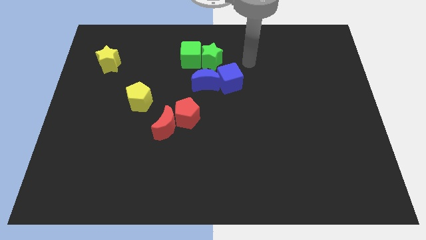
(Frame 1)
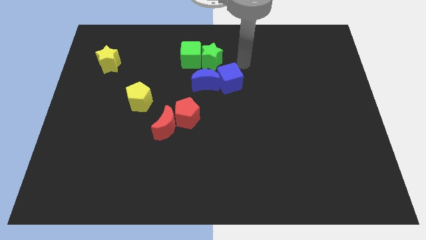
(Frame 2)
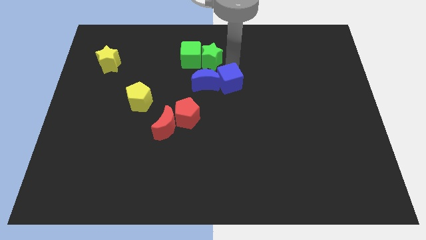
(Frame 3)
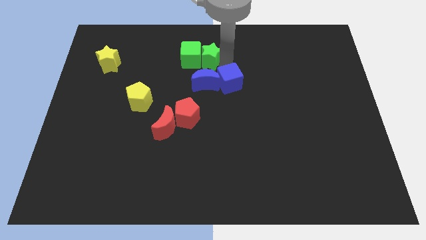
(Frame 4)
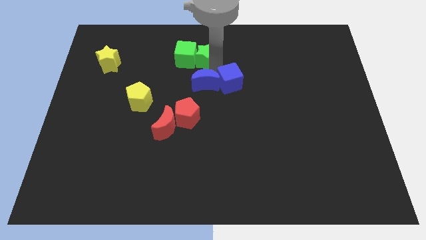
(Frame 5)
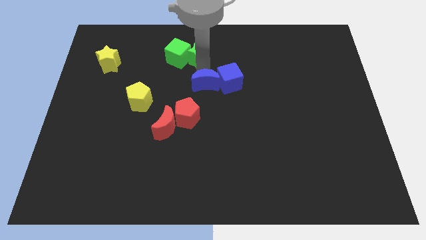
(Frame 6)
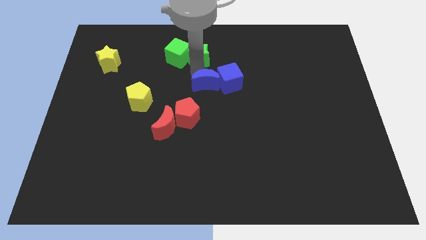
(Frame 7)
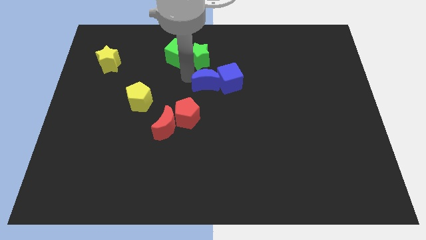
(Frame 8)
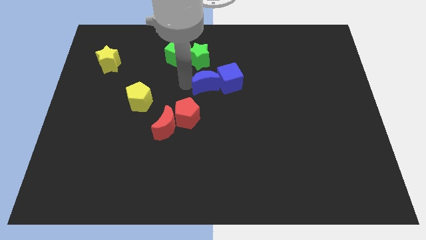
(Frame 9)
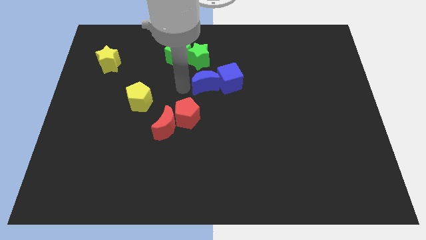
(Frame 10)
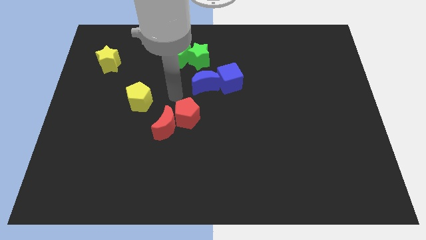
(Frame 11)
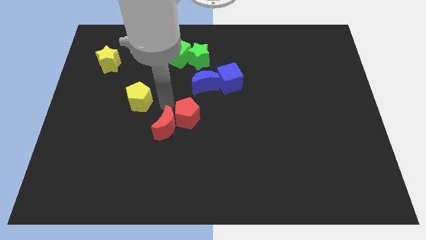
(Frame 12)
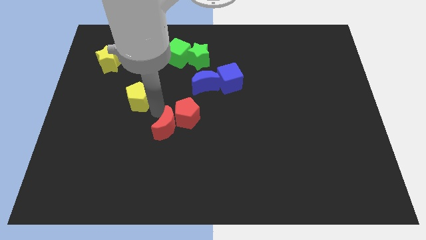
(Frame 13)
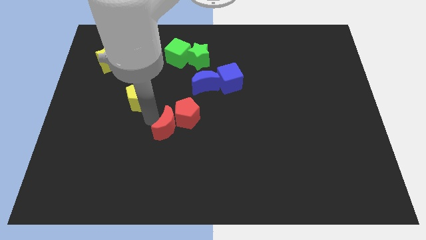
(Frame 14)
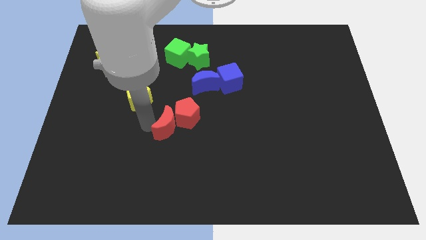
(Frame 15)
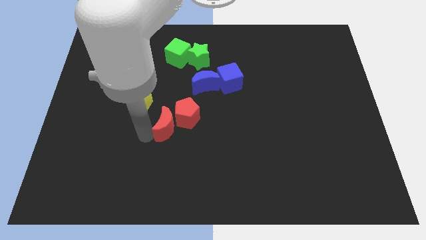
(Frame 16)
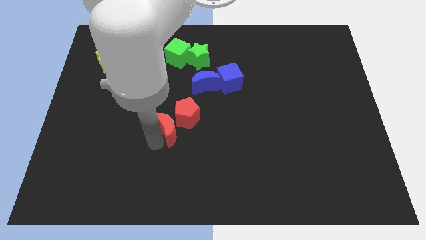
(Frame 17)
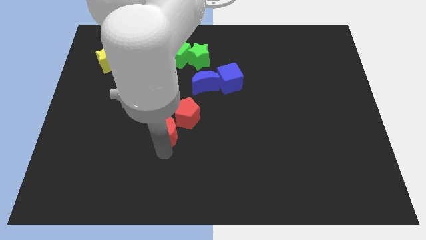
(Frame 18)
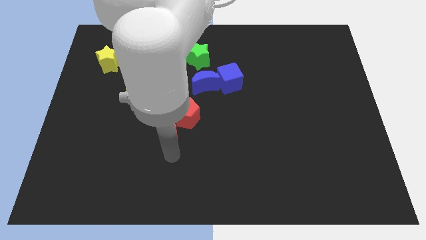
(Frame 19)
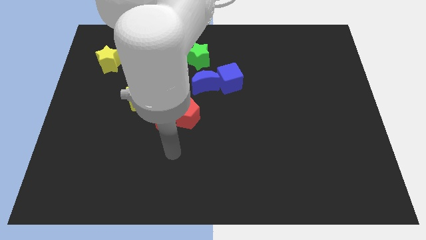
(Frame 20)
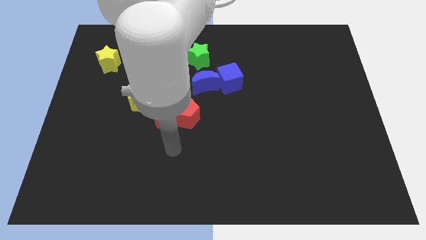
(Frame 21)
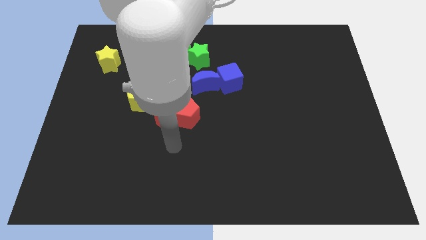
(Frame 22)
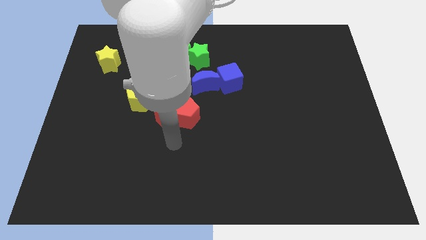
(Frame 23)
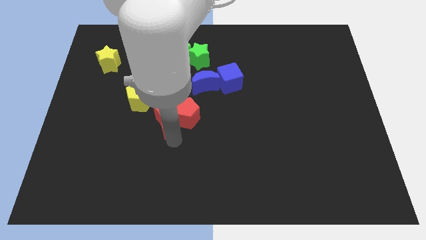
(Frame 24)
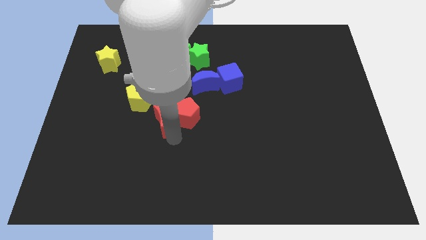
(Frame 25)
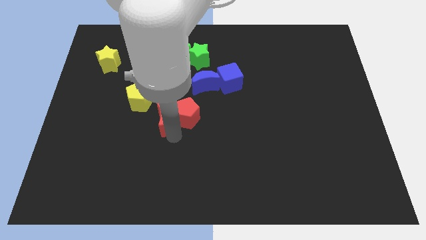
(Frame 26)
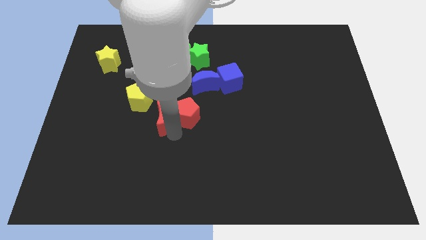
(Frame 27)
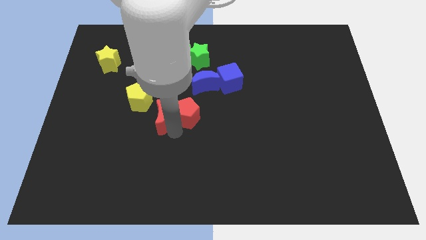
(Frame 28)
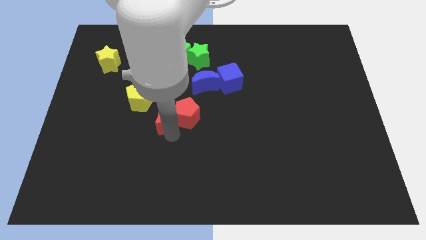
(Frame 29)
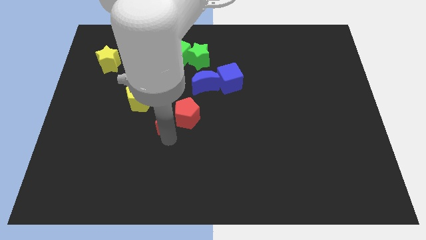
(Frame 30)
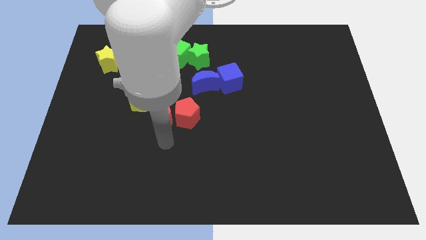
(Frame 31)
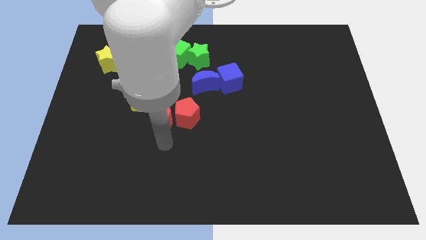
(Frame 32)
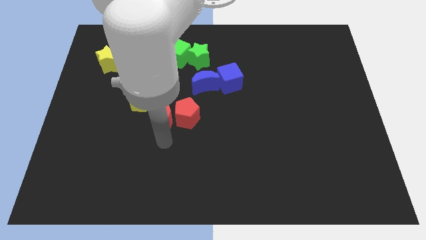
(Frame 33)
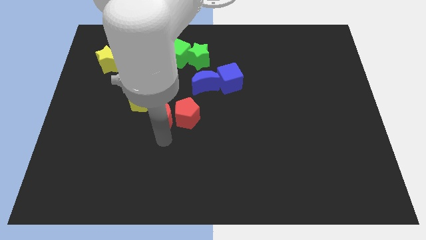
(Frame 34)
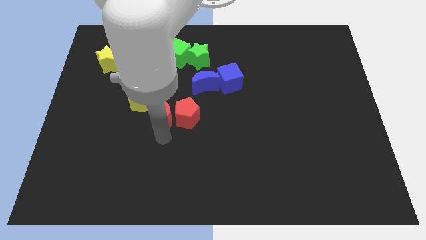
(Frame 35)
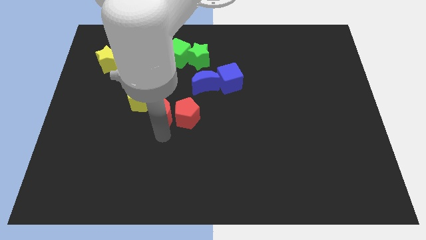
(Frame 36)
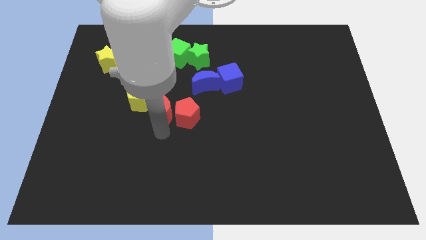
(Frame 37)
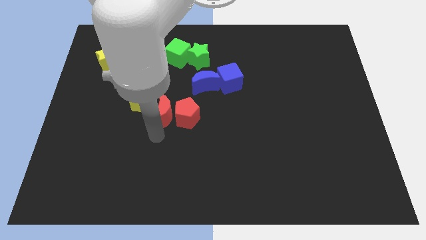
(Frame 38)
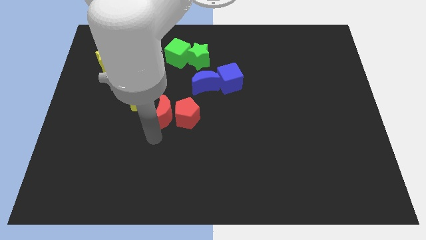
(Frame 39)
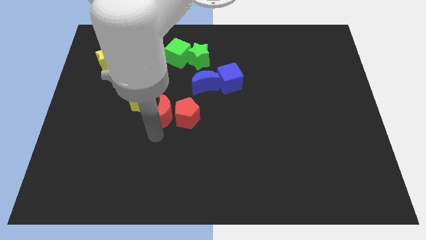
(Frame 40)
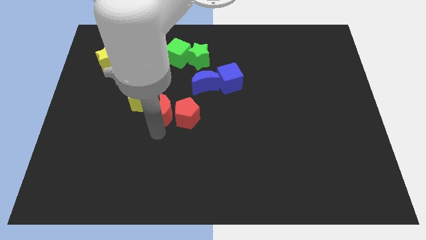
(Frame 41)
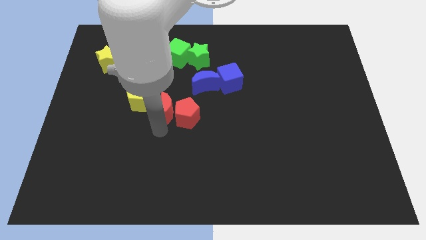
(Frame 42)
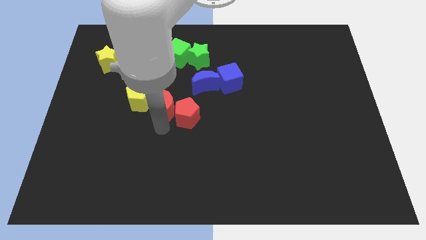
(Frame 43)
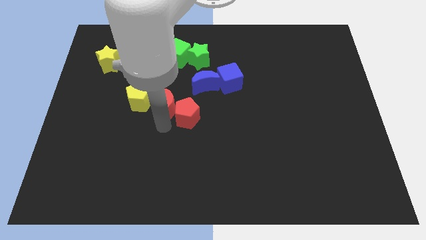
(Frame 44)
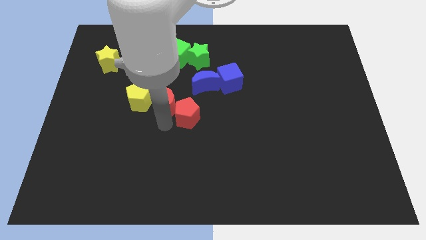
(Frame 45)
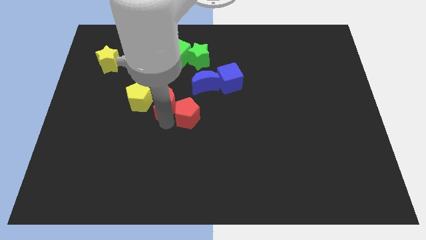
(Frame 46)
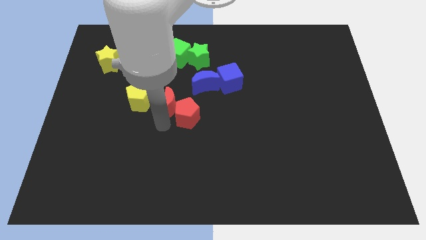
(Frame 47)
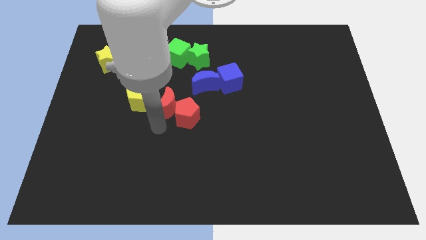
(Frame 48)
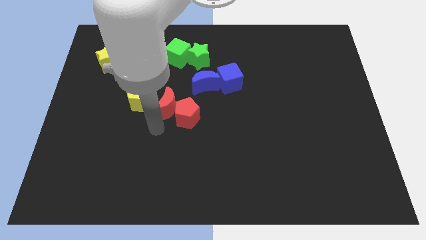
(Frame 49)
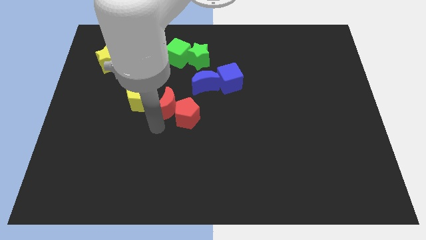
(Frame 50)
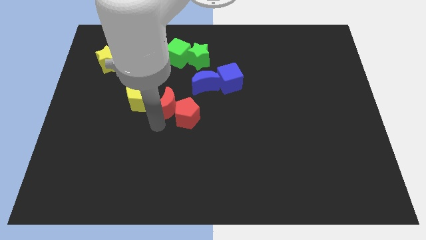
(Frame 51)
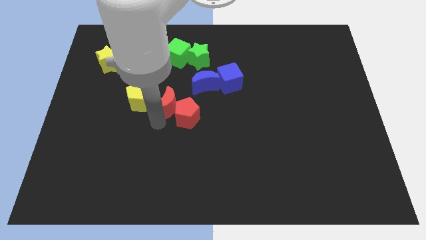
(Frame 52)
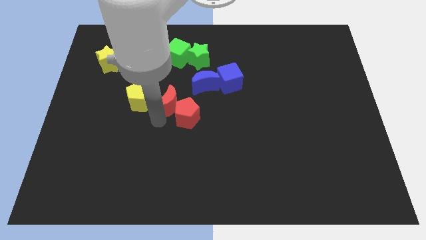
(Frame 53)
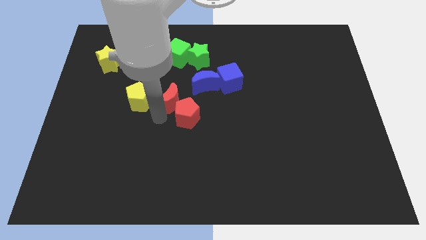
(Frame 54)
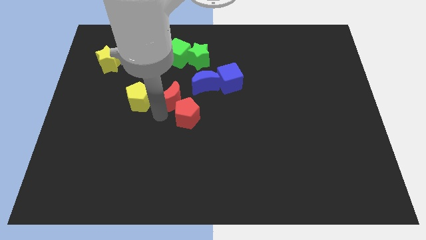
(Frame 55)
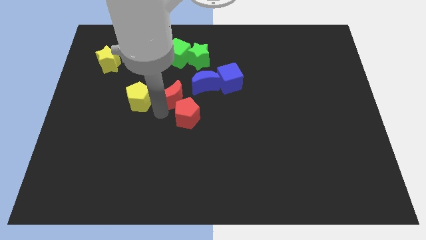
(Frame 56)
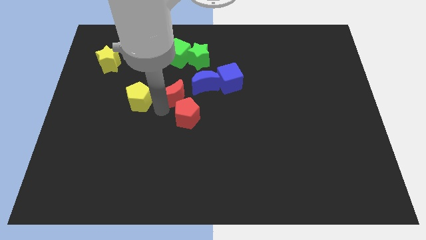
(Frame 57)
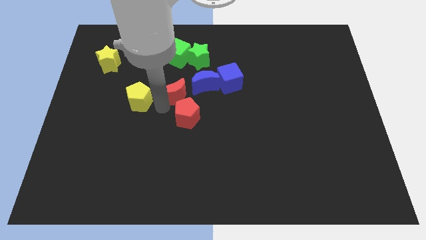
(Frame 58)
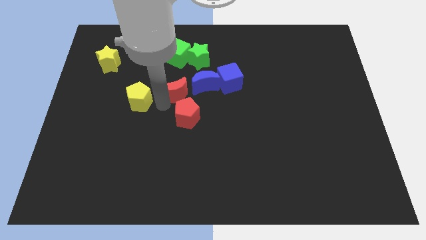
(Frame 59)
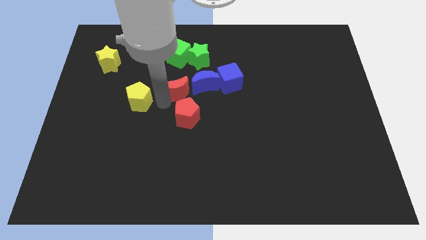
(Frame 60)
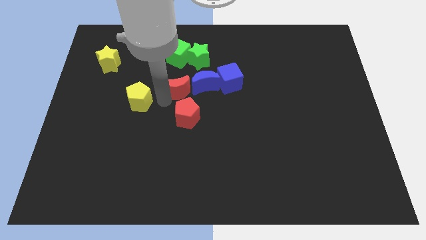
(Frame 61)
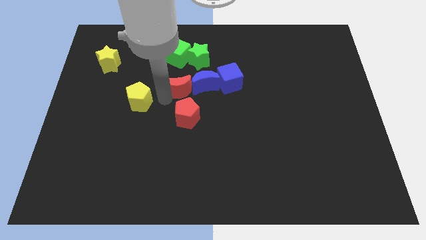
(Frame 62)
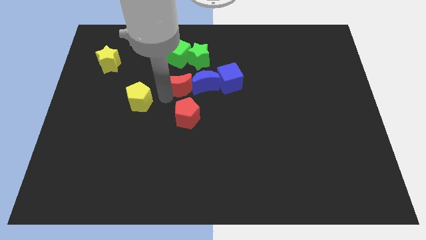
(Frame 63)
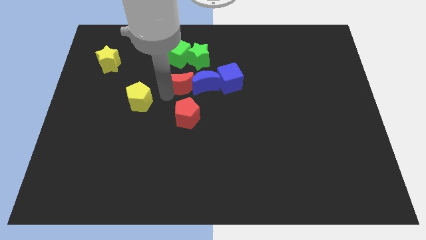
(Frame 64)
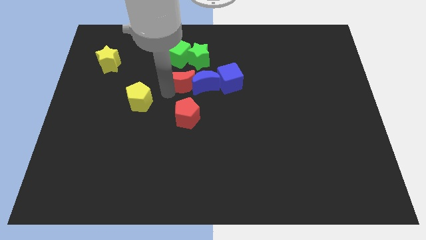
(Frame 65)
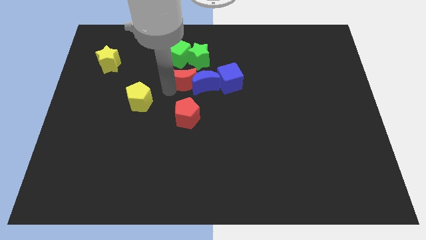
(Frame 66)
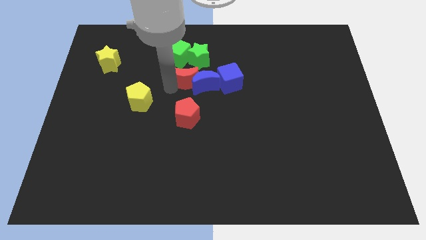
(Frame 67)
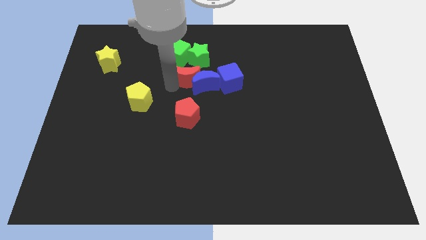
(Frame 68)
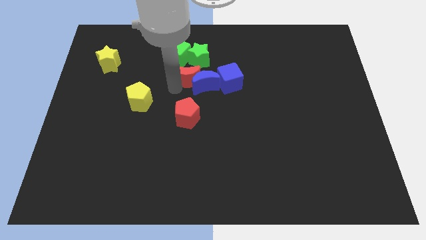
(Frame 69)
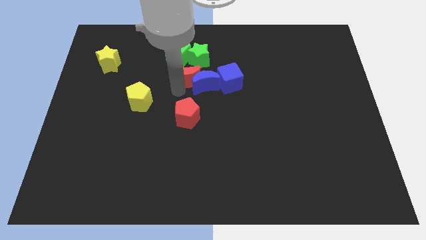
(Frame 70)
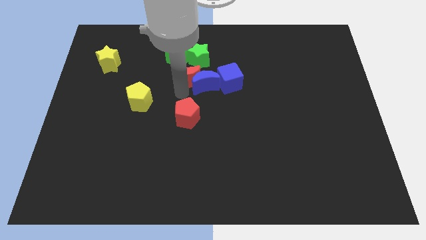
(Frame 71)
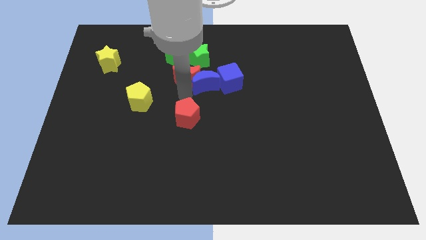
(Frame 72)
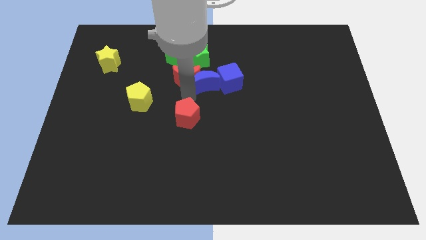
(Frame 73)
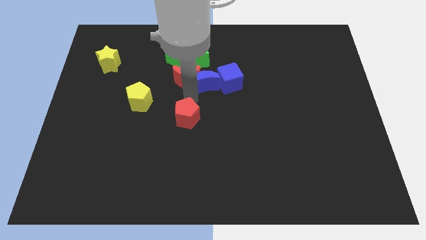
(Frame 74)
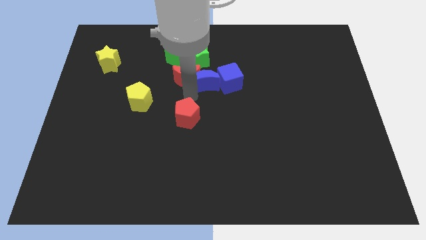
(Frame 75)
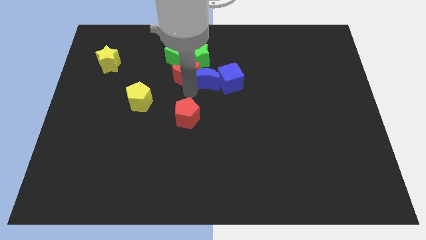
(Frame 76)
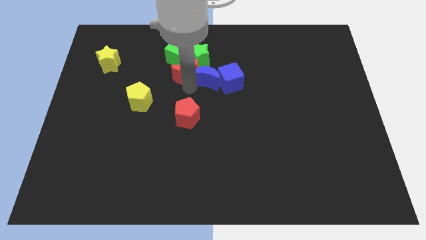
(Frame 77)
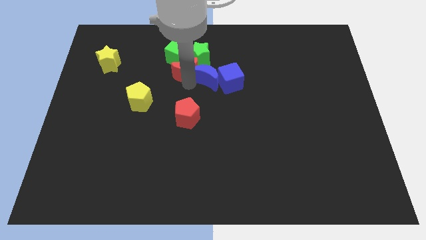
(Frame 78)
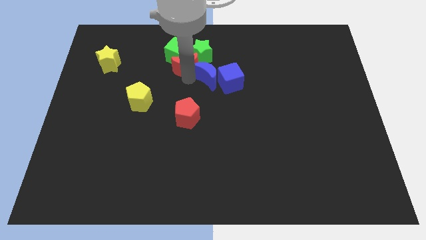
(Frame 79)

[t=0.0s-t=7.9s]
push the red moon to the green cube
